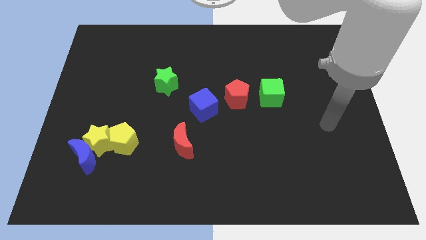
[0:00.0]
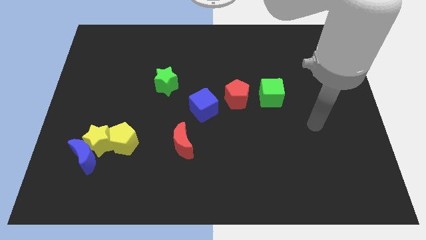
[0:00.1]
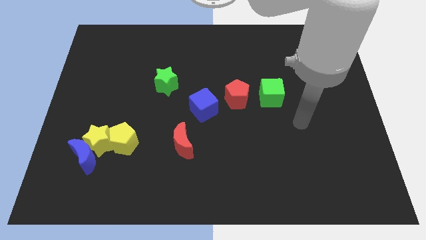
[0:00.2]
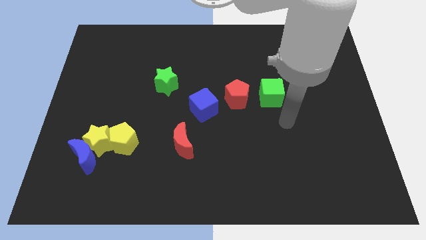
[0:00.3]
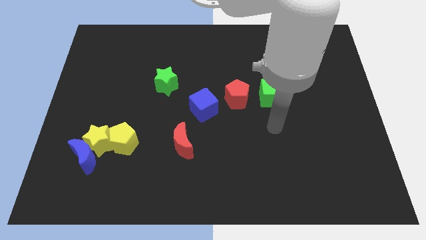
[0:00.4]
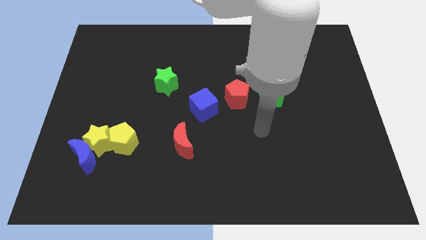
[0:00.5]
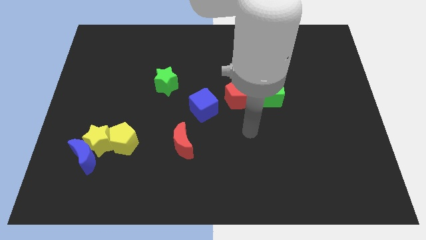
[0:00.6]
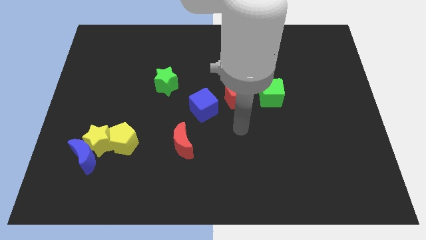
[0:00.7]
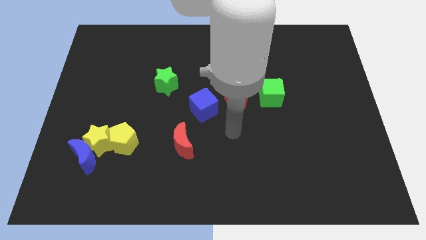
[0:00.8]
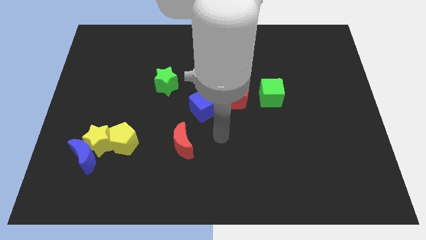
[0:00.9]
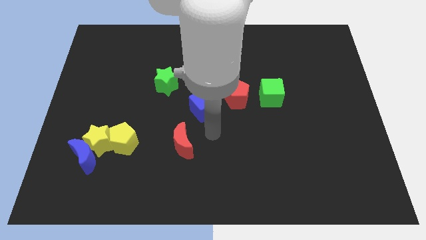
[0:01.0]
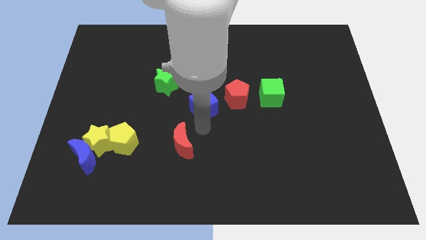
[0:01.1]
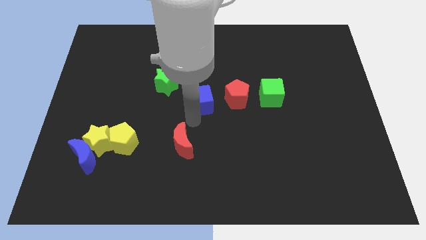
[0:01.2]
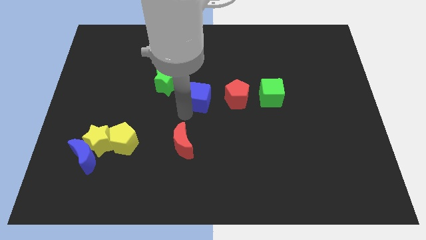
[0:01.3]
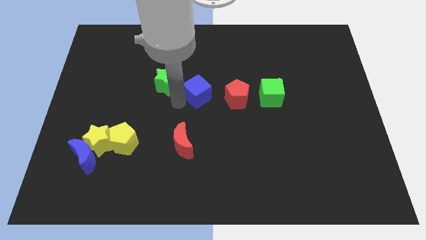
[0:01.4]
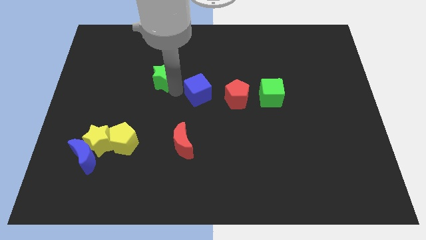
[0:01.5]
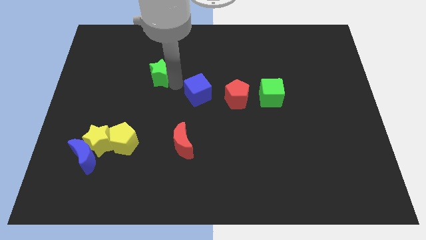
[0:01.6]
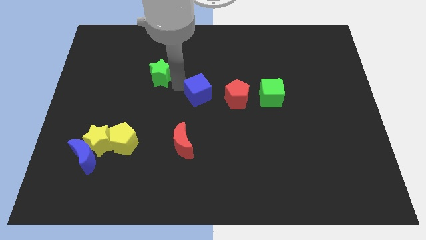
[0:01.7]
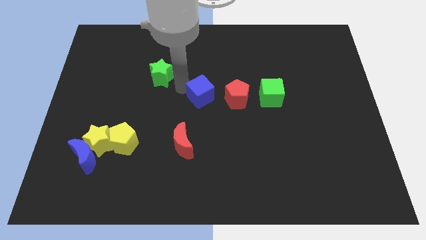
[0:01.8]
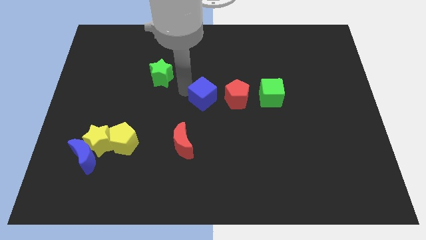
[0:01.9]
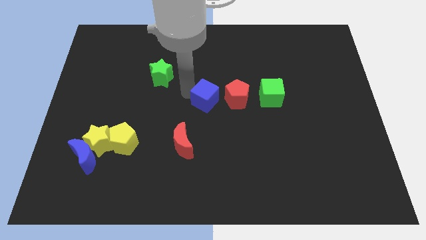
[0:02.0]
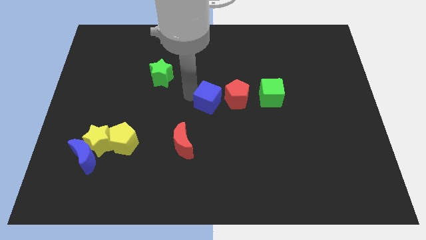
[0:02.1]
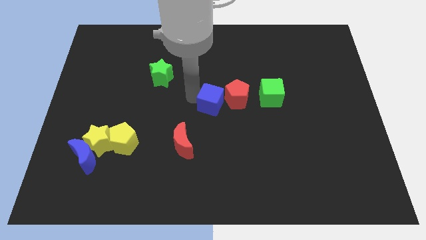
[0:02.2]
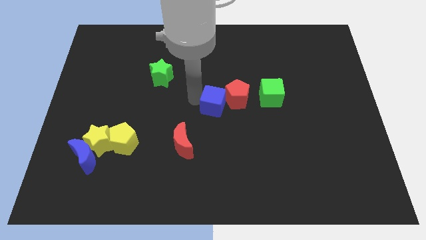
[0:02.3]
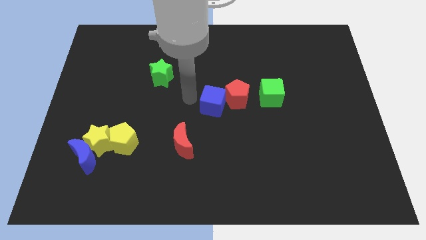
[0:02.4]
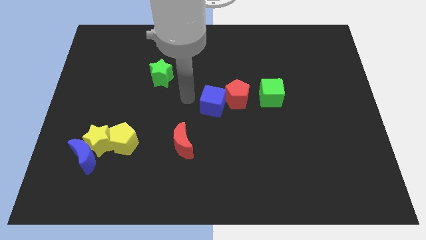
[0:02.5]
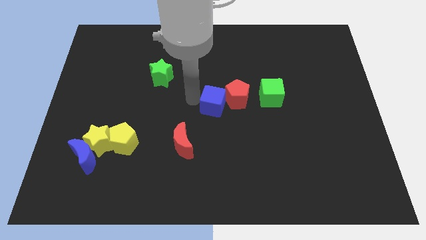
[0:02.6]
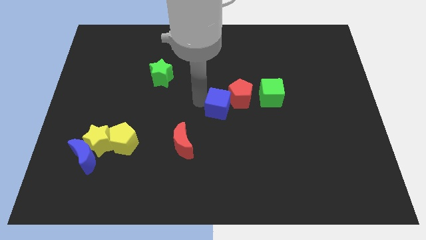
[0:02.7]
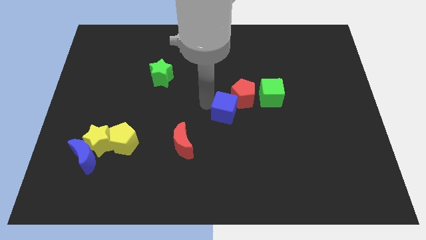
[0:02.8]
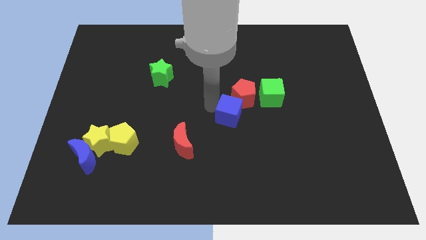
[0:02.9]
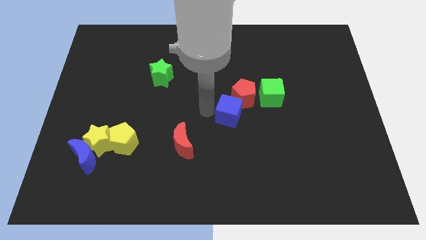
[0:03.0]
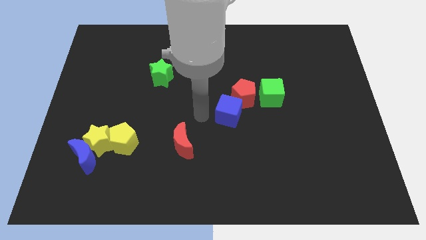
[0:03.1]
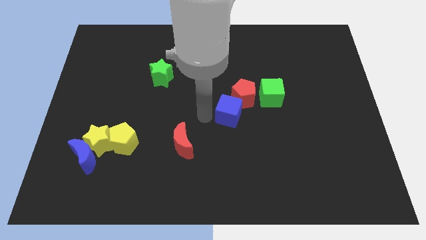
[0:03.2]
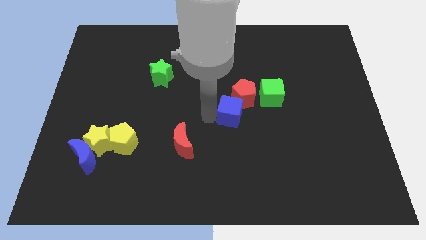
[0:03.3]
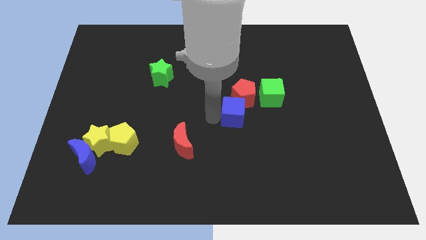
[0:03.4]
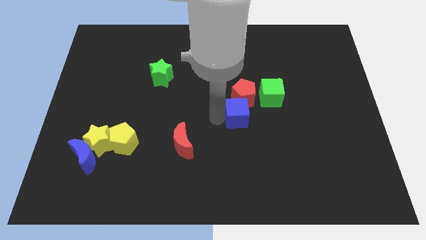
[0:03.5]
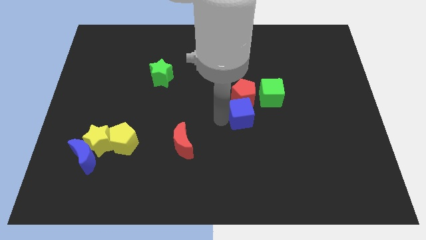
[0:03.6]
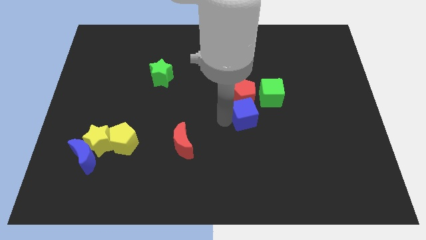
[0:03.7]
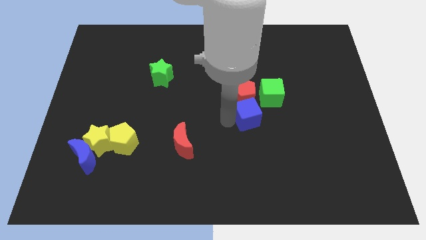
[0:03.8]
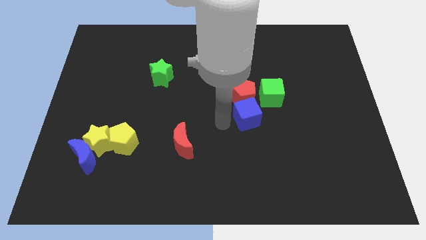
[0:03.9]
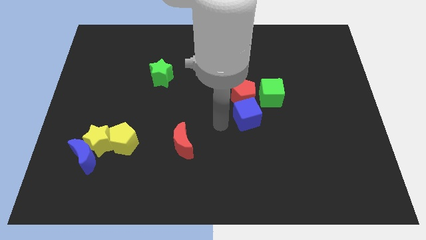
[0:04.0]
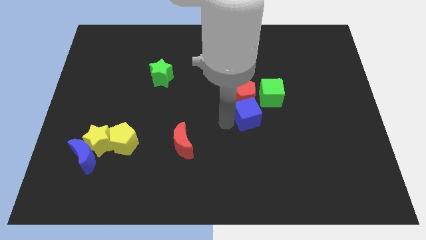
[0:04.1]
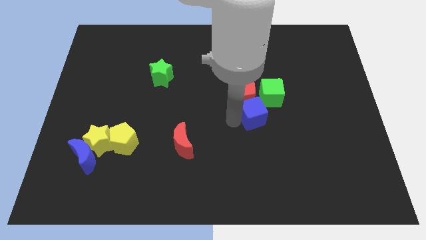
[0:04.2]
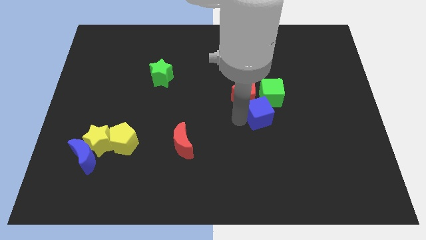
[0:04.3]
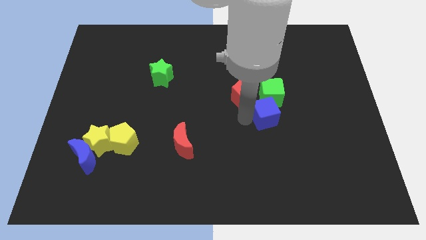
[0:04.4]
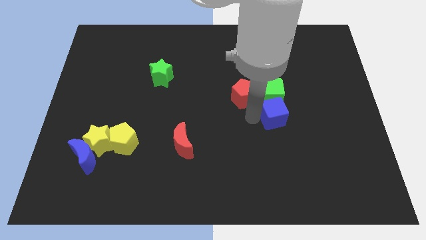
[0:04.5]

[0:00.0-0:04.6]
move the blue cube diagonally down and to the right of the green cube

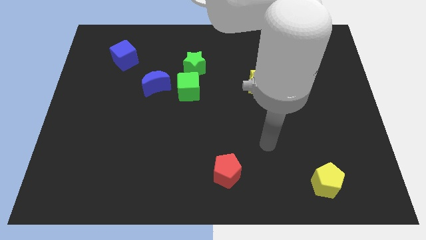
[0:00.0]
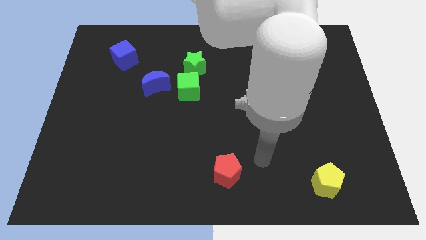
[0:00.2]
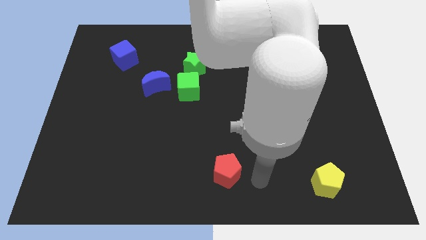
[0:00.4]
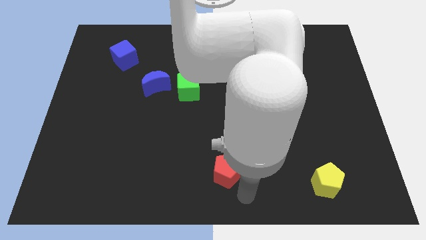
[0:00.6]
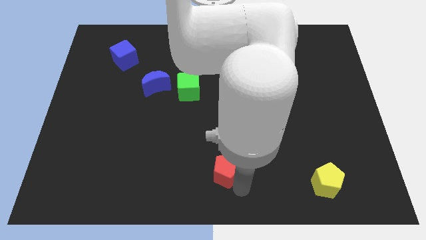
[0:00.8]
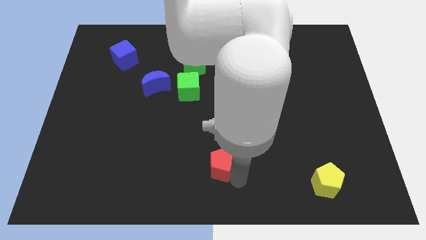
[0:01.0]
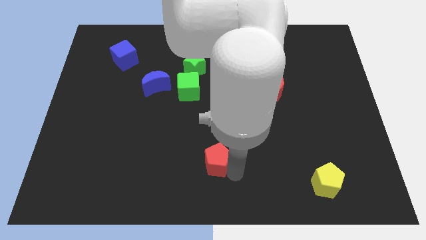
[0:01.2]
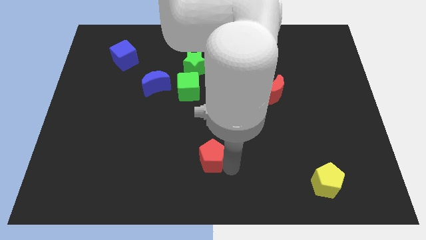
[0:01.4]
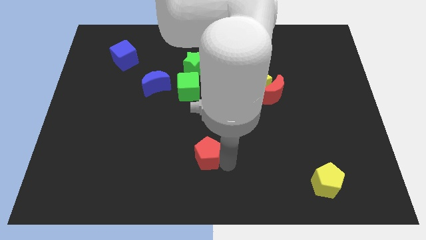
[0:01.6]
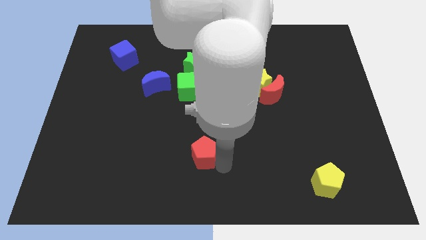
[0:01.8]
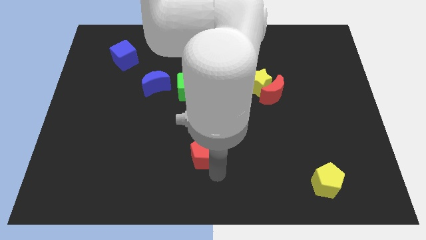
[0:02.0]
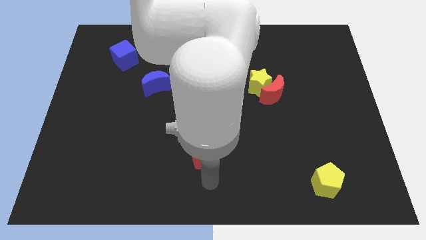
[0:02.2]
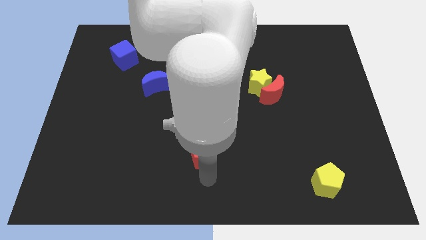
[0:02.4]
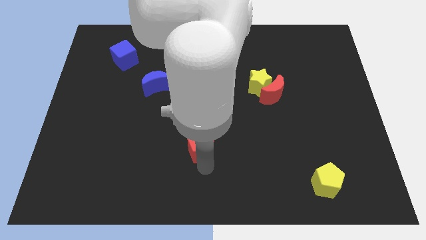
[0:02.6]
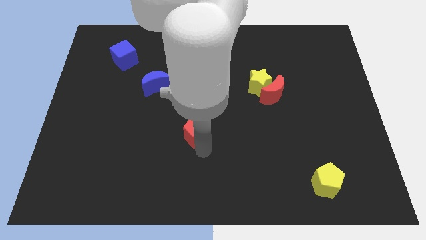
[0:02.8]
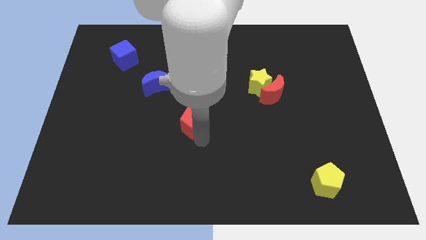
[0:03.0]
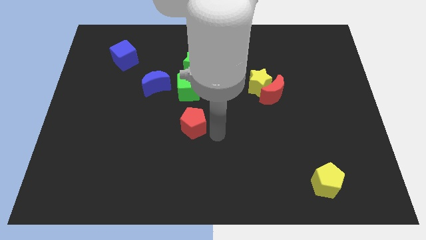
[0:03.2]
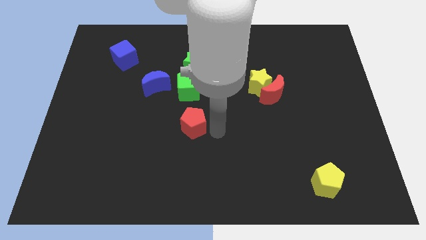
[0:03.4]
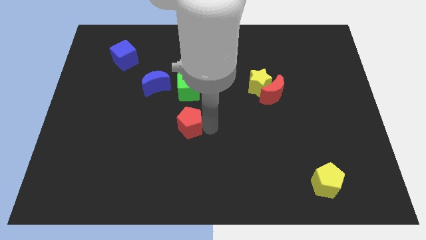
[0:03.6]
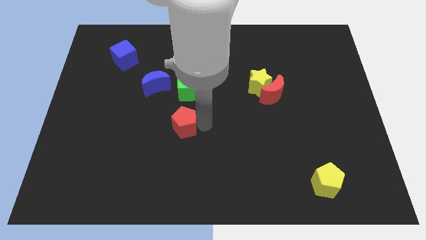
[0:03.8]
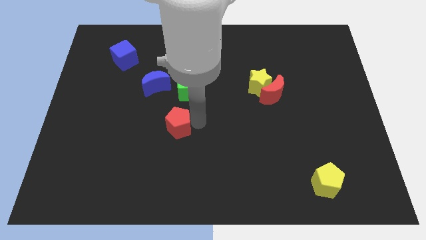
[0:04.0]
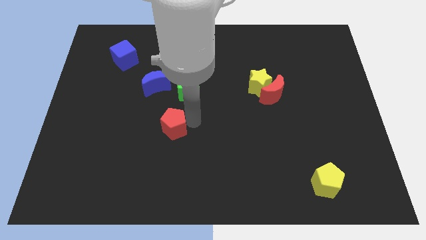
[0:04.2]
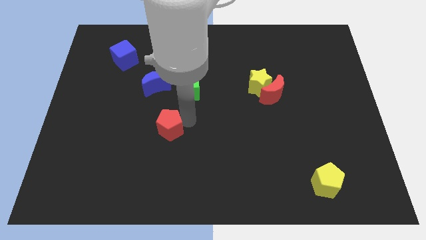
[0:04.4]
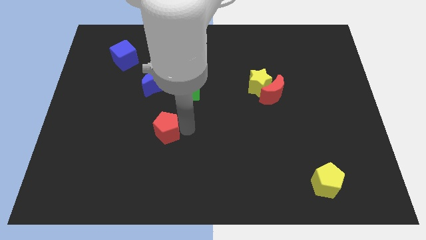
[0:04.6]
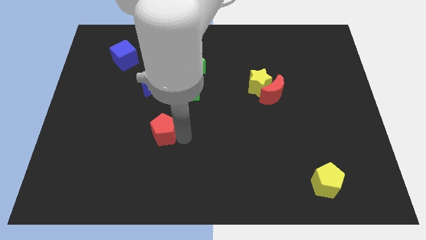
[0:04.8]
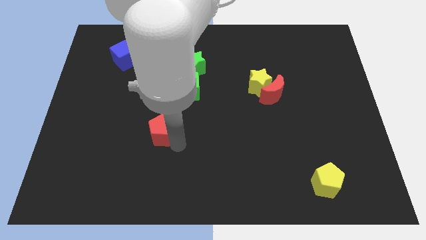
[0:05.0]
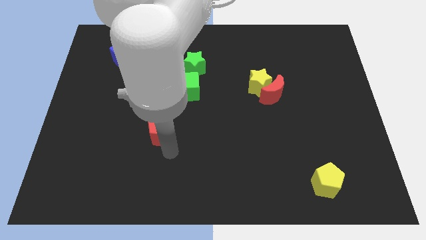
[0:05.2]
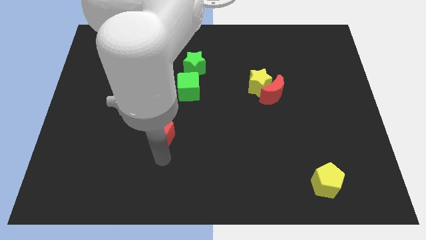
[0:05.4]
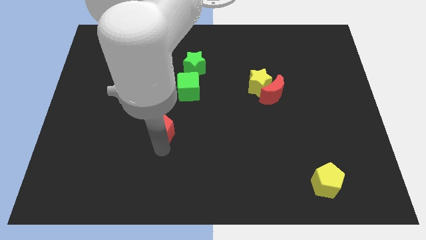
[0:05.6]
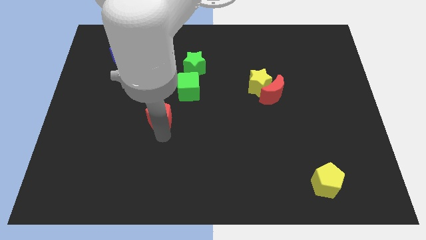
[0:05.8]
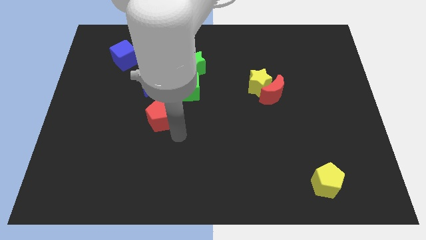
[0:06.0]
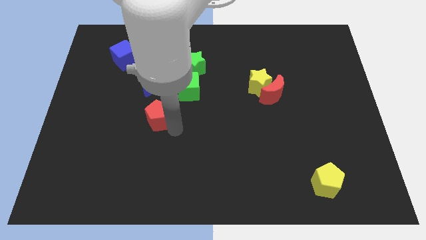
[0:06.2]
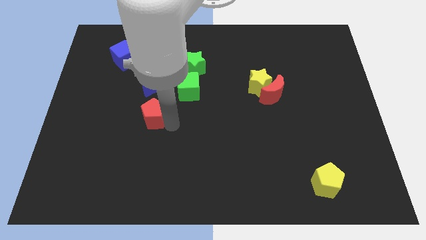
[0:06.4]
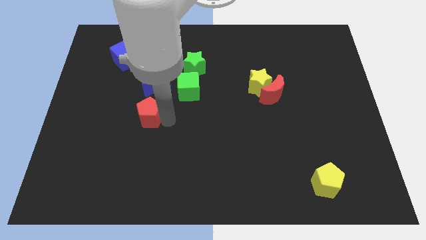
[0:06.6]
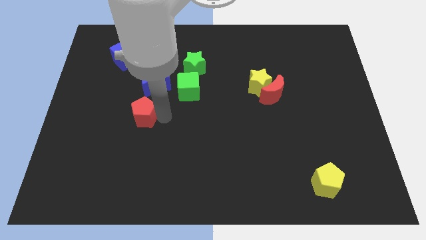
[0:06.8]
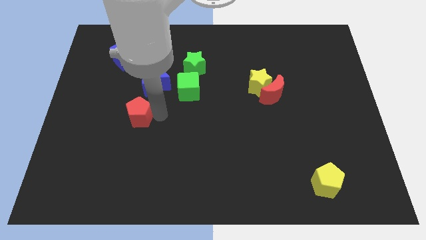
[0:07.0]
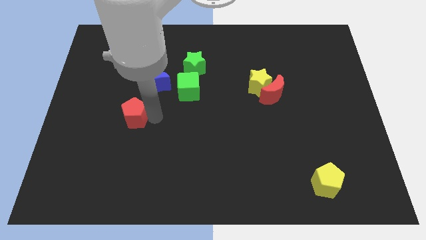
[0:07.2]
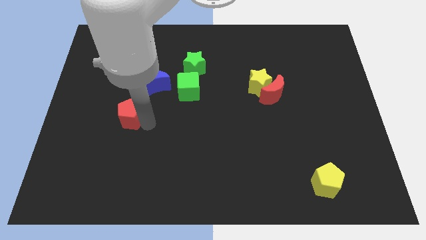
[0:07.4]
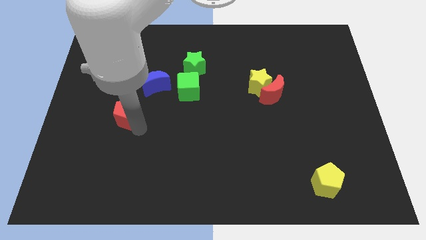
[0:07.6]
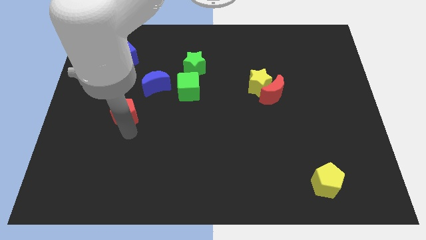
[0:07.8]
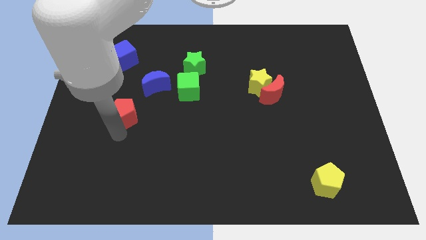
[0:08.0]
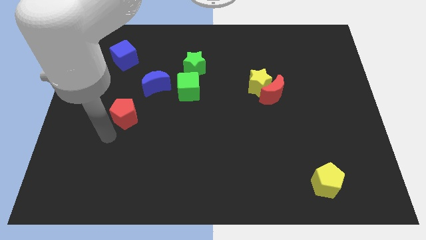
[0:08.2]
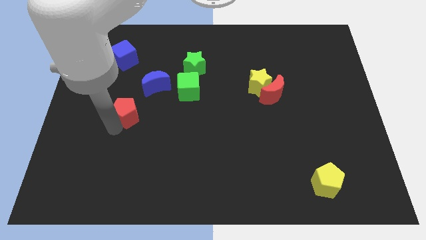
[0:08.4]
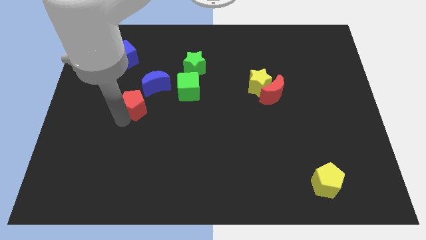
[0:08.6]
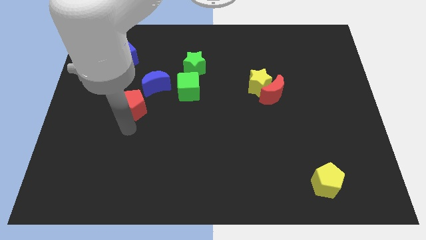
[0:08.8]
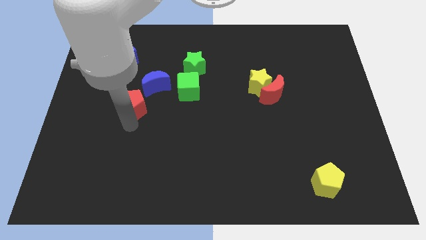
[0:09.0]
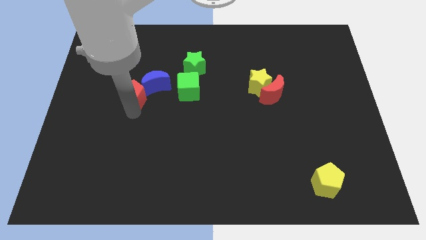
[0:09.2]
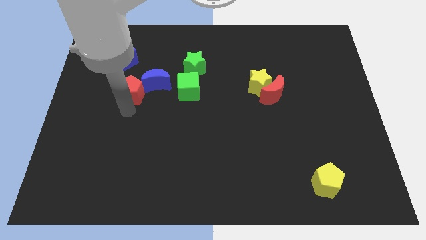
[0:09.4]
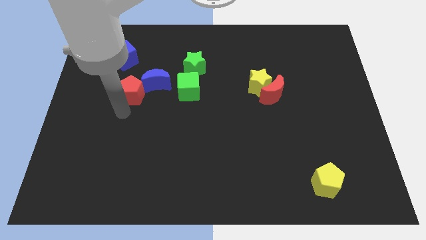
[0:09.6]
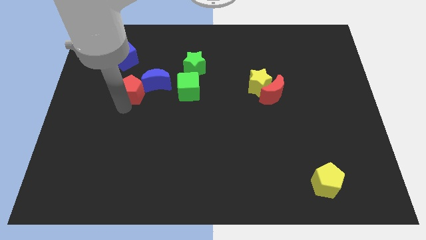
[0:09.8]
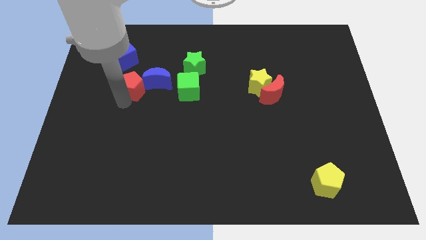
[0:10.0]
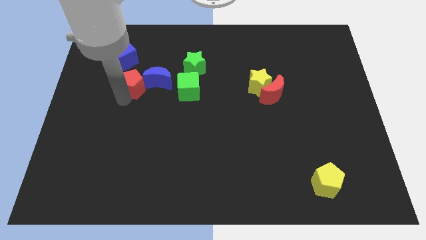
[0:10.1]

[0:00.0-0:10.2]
push the red pentagon to the bottom right side of the blue cube
